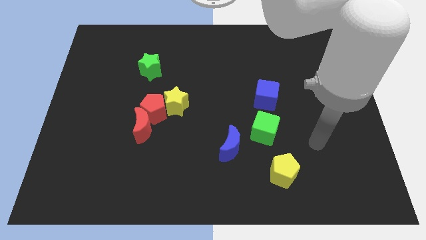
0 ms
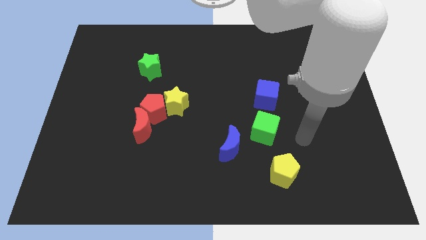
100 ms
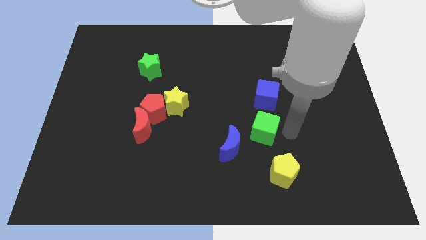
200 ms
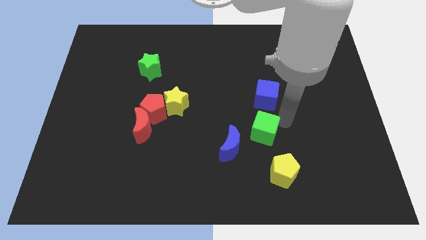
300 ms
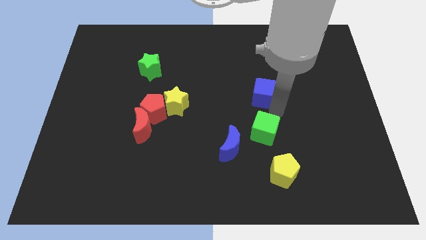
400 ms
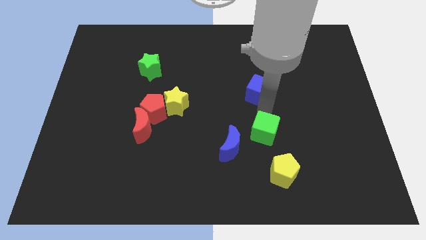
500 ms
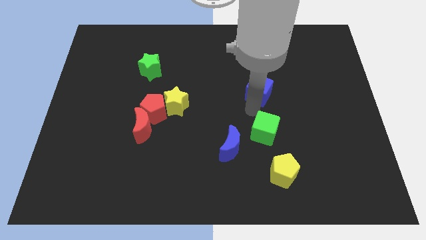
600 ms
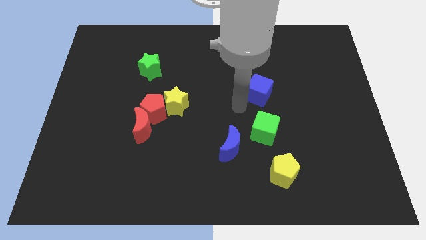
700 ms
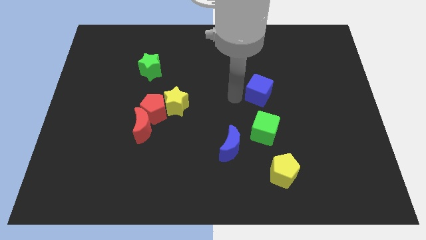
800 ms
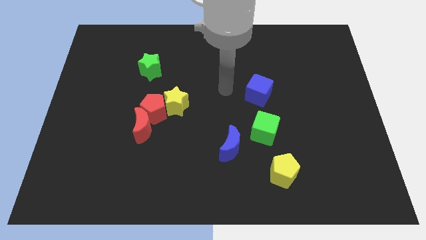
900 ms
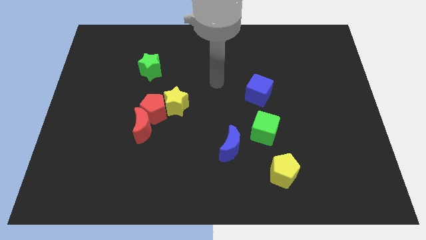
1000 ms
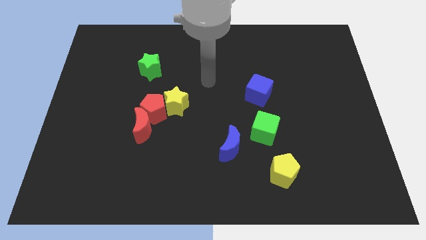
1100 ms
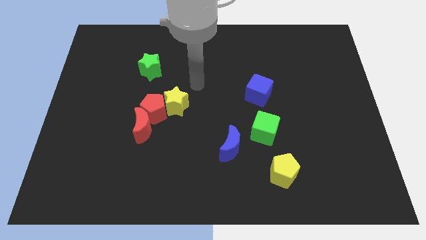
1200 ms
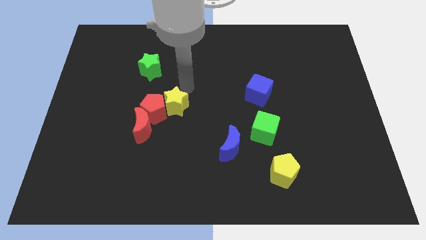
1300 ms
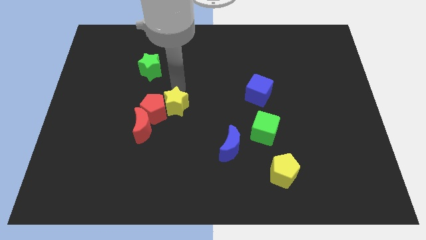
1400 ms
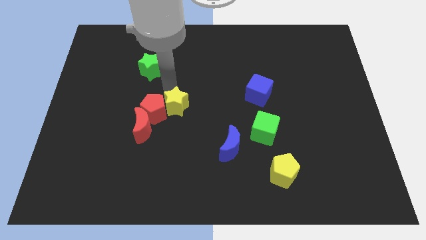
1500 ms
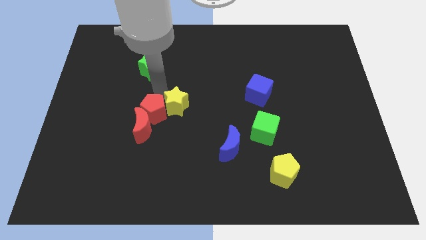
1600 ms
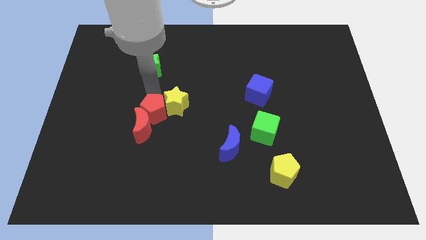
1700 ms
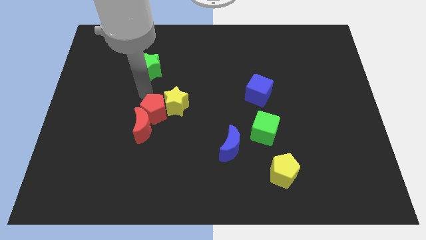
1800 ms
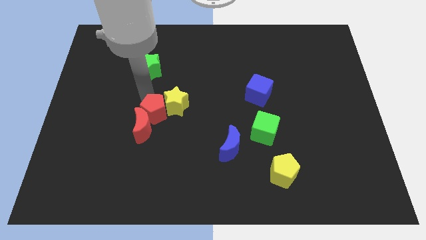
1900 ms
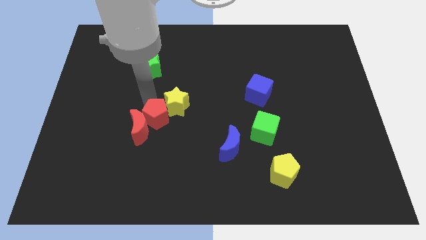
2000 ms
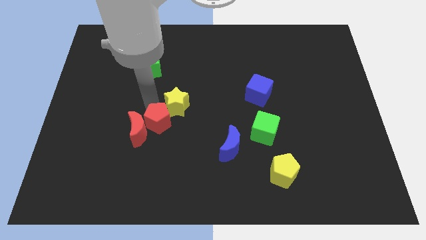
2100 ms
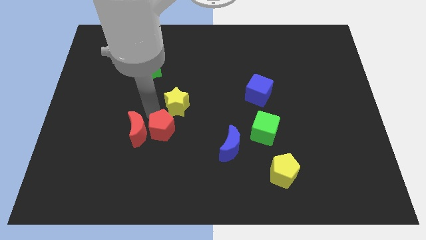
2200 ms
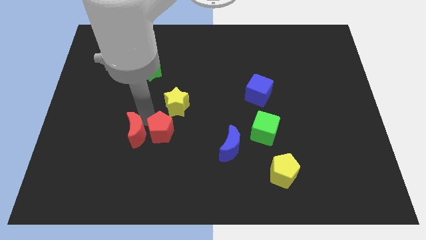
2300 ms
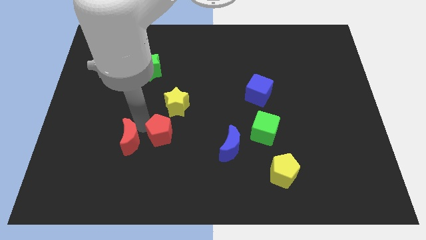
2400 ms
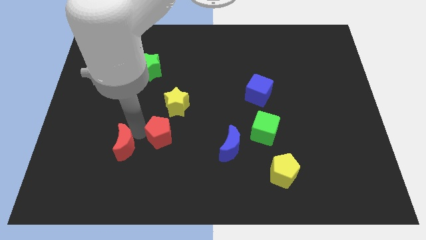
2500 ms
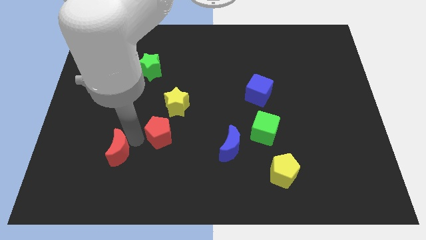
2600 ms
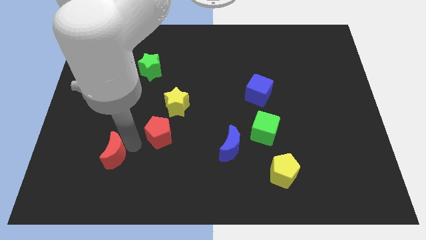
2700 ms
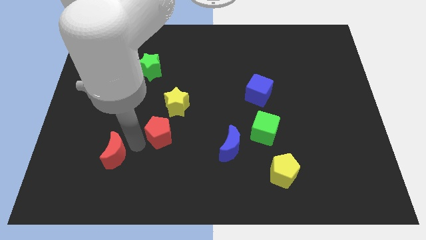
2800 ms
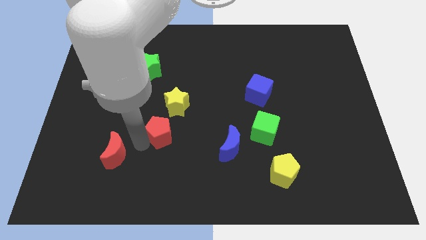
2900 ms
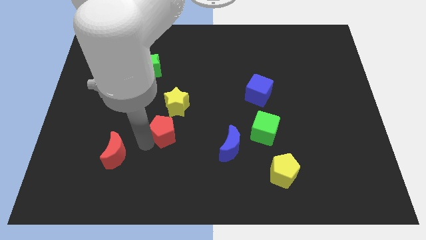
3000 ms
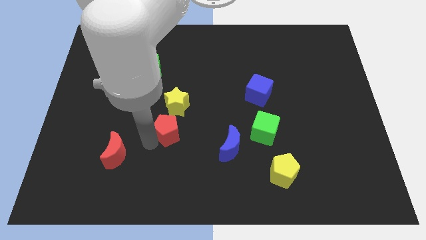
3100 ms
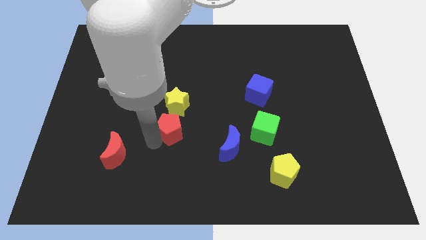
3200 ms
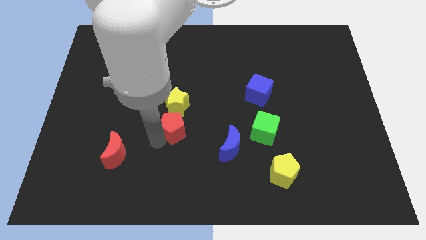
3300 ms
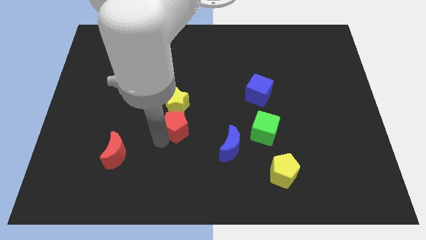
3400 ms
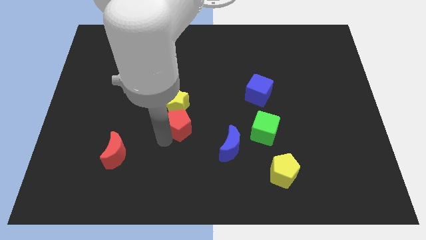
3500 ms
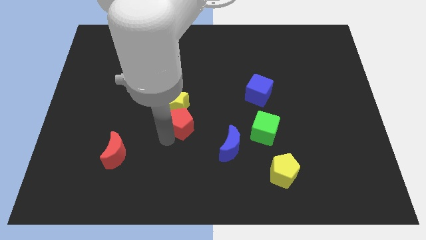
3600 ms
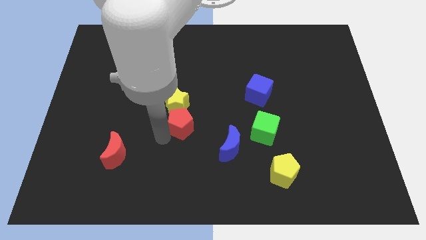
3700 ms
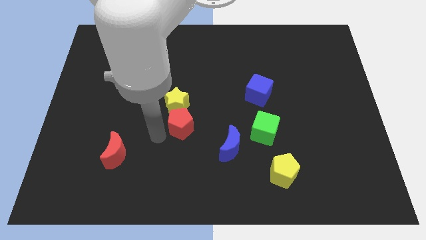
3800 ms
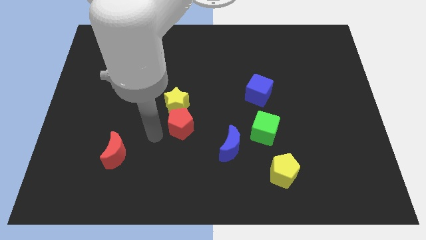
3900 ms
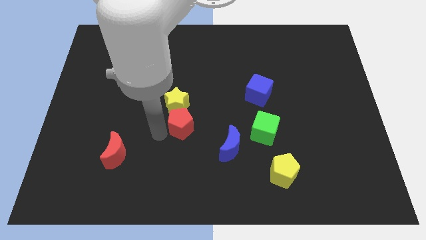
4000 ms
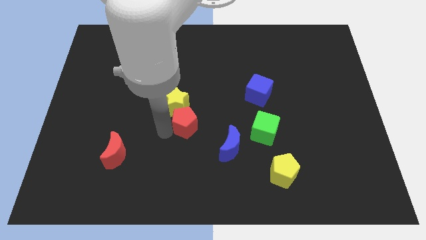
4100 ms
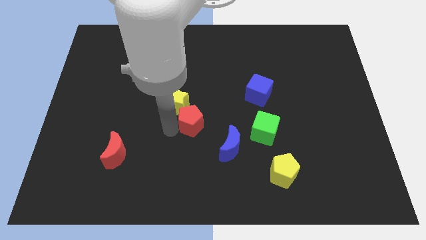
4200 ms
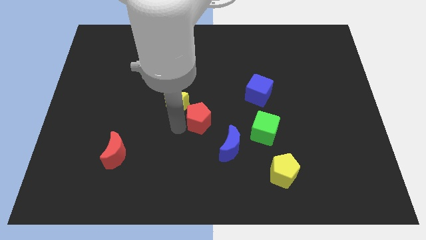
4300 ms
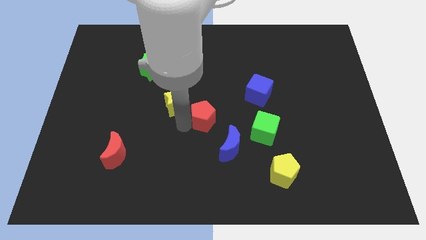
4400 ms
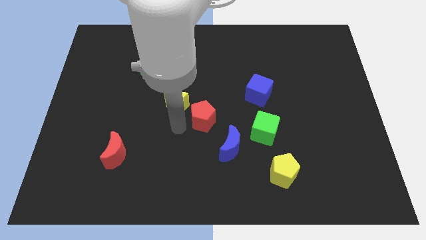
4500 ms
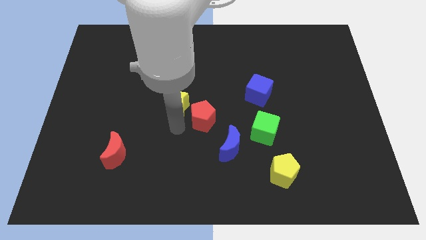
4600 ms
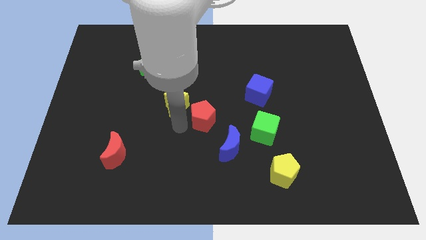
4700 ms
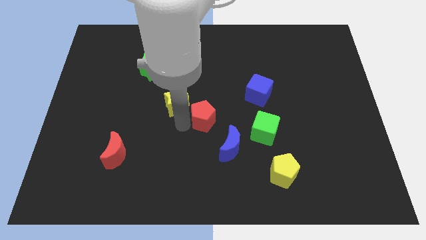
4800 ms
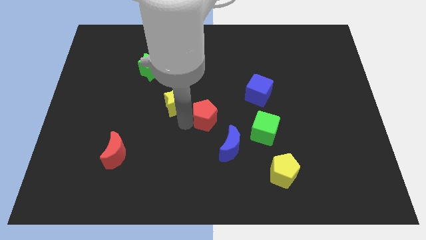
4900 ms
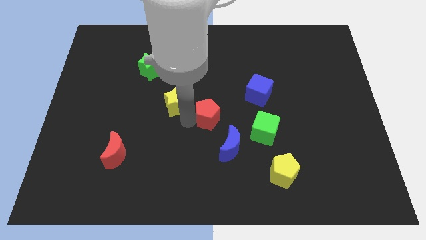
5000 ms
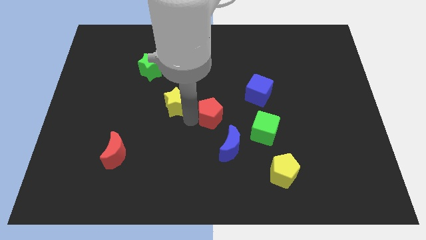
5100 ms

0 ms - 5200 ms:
move the red pentagon to the top side of the blue moon

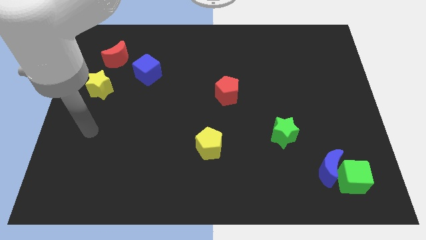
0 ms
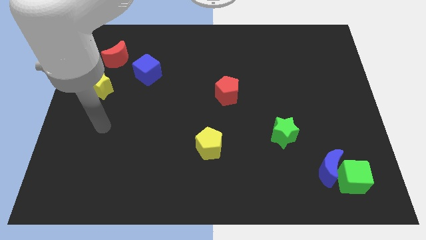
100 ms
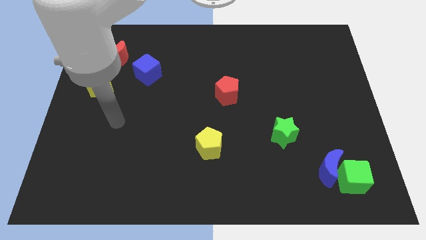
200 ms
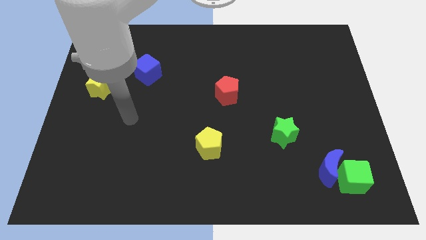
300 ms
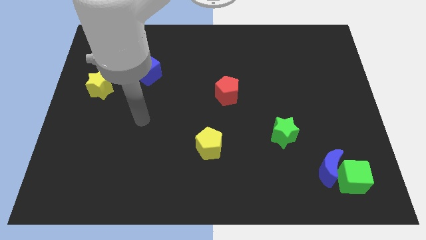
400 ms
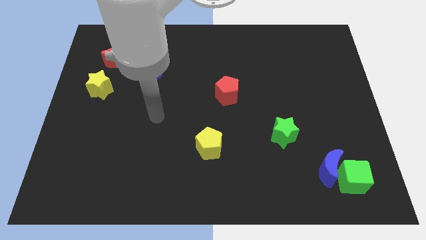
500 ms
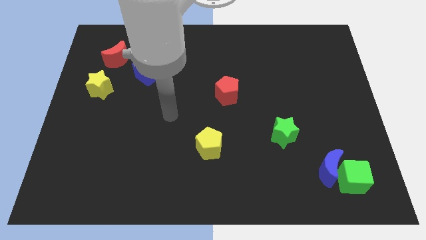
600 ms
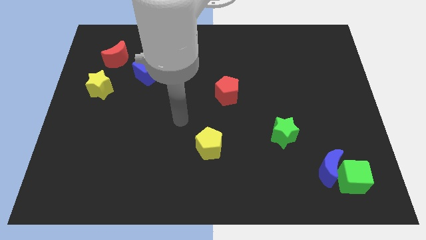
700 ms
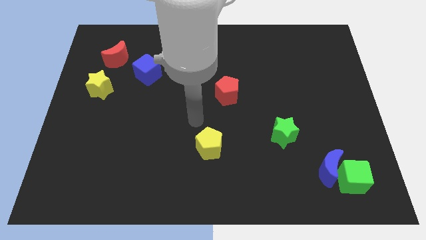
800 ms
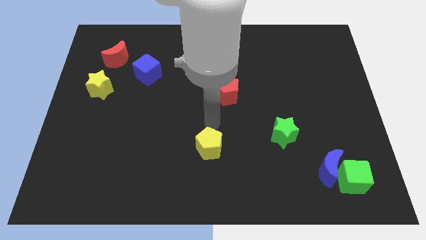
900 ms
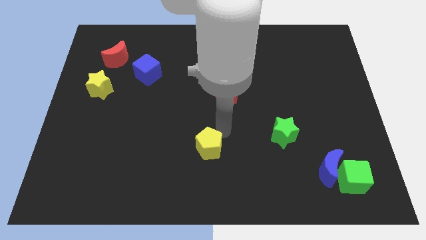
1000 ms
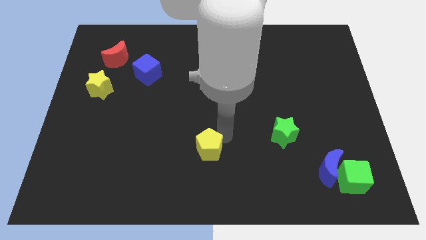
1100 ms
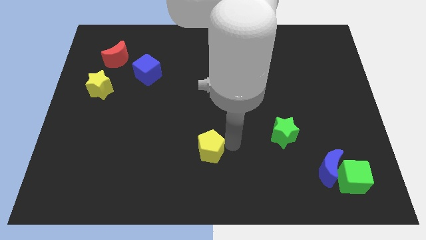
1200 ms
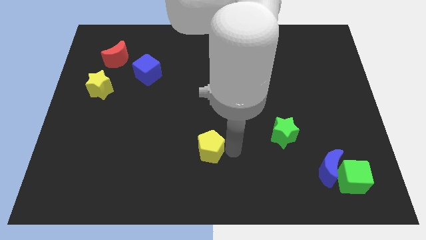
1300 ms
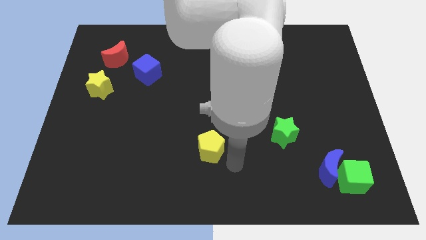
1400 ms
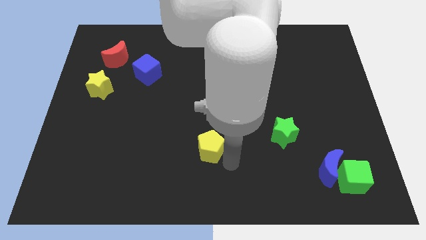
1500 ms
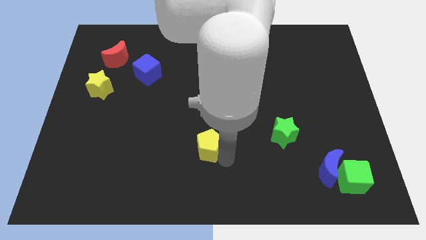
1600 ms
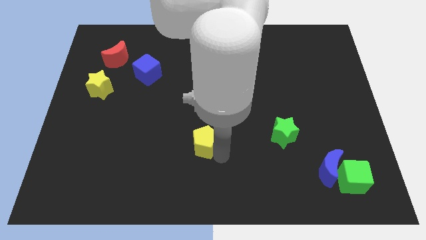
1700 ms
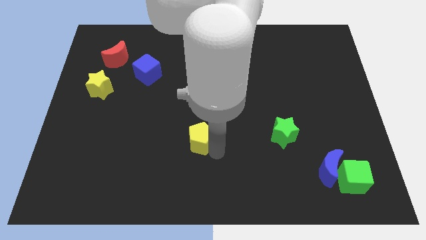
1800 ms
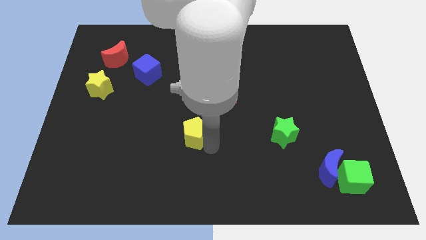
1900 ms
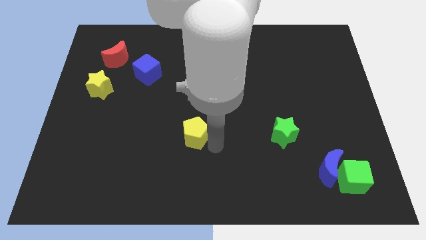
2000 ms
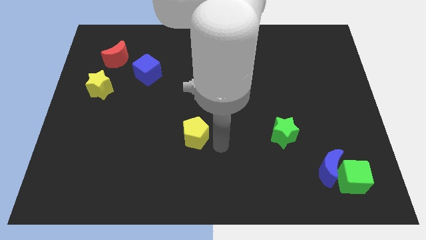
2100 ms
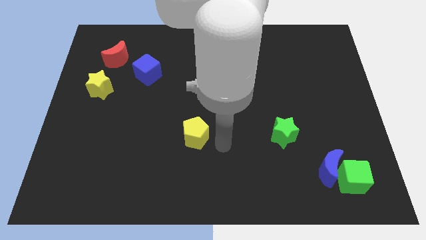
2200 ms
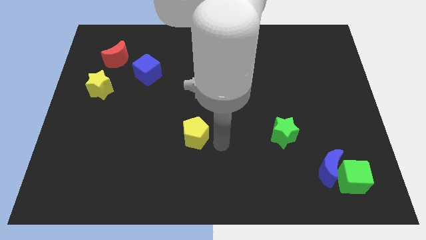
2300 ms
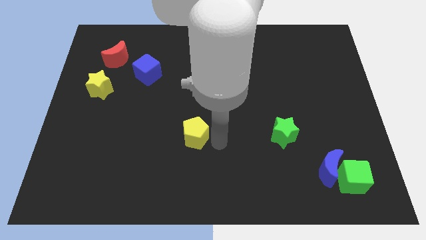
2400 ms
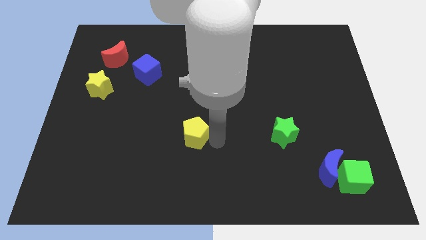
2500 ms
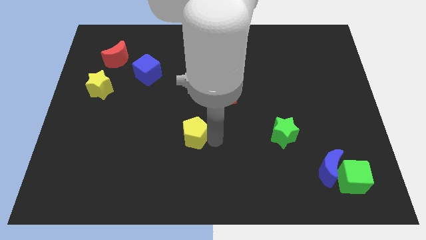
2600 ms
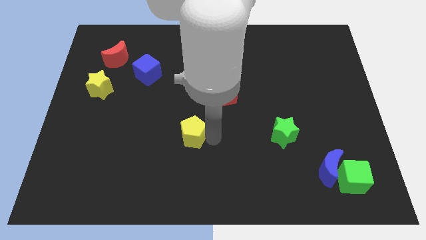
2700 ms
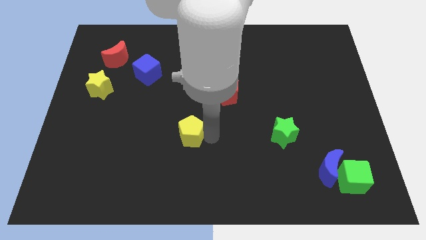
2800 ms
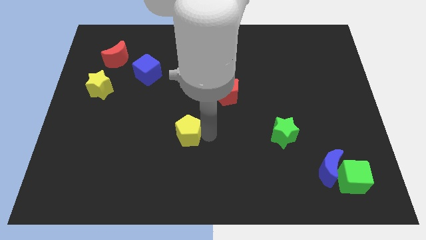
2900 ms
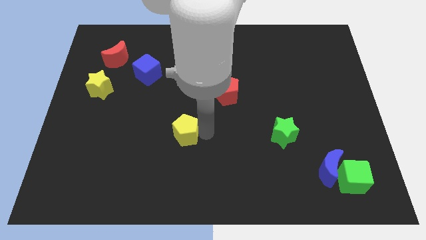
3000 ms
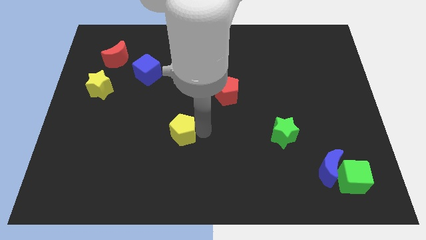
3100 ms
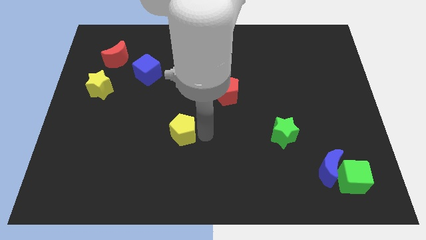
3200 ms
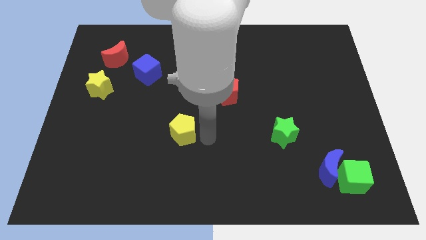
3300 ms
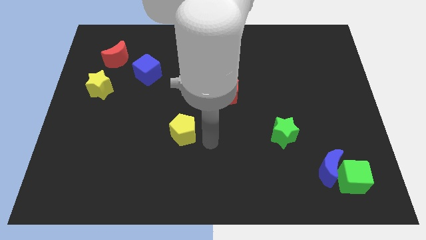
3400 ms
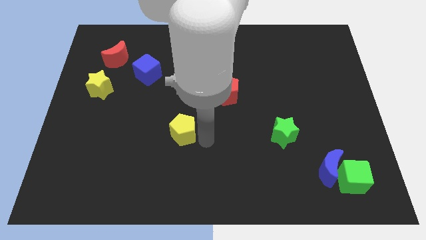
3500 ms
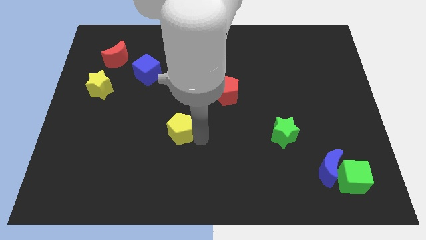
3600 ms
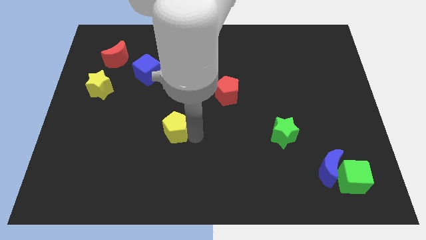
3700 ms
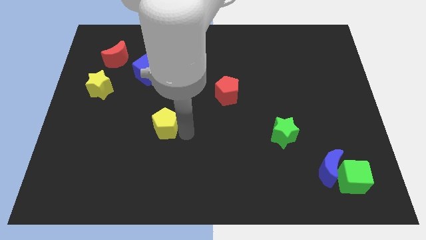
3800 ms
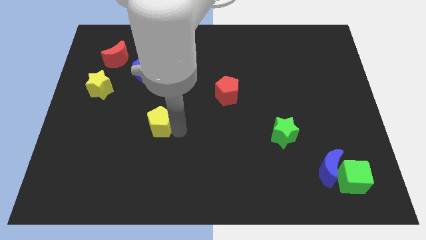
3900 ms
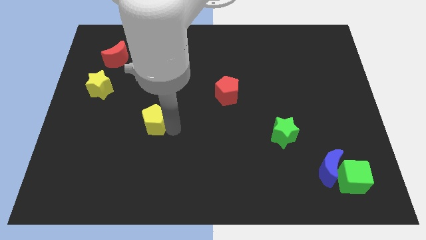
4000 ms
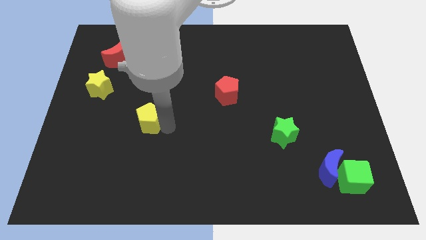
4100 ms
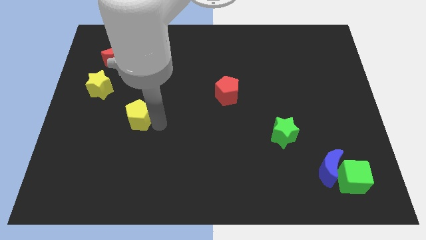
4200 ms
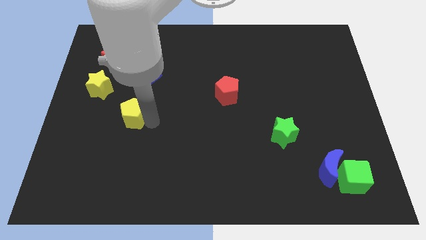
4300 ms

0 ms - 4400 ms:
move the yellow pentagon to the bottom right side of the yellow star
